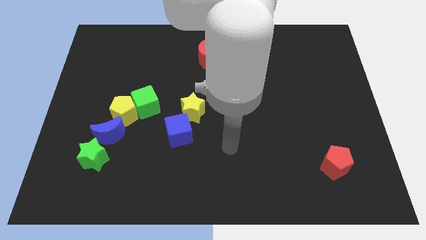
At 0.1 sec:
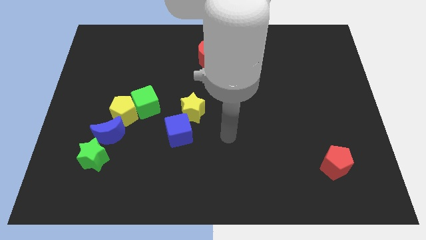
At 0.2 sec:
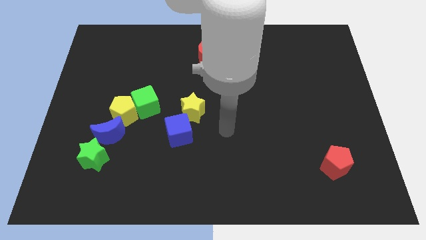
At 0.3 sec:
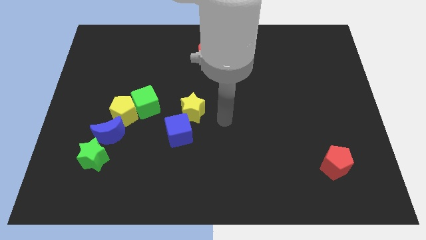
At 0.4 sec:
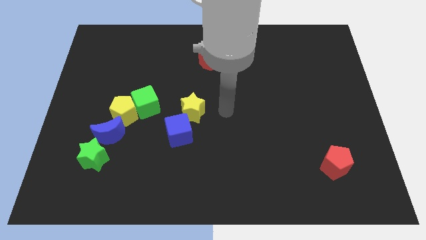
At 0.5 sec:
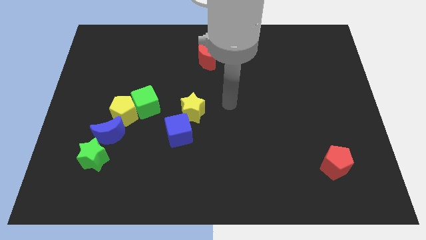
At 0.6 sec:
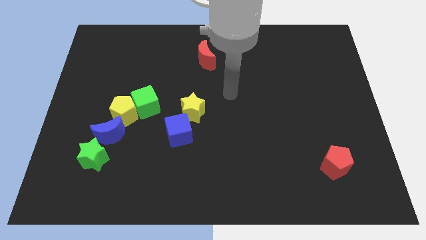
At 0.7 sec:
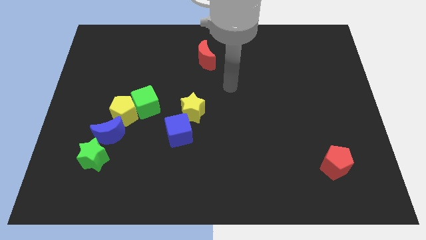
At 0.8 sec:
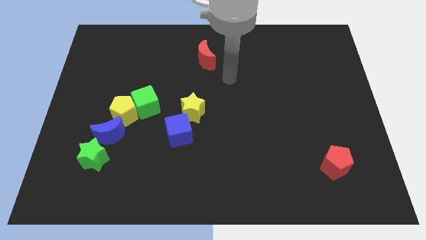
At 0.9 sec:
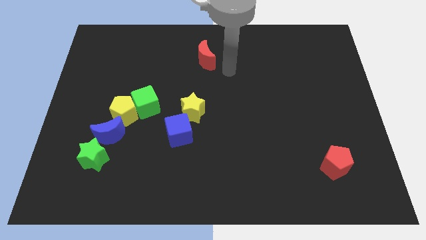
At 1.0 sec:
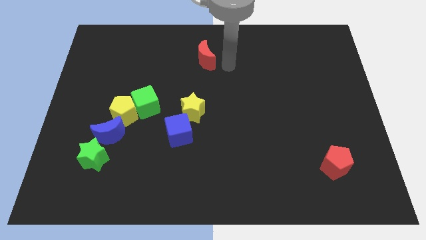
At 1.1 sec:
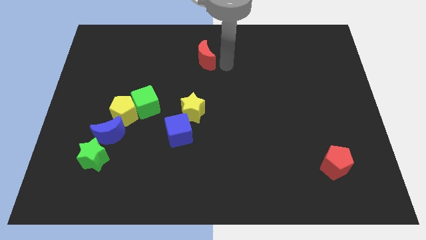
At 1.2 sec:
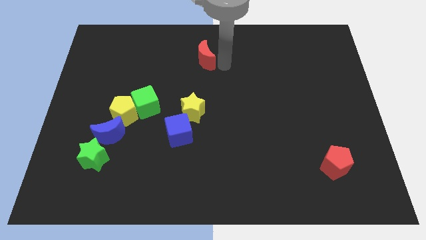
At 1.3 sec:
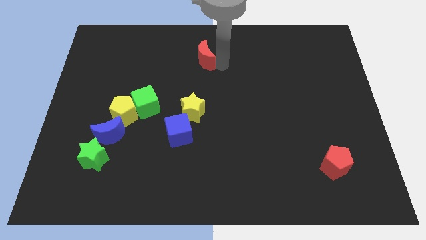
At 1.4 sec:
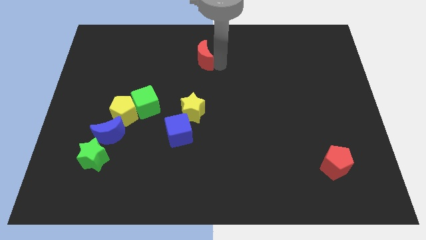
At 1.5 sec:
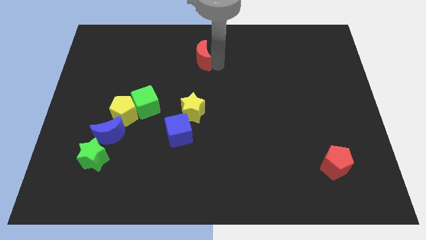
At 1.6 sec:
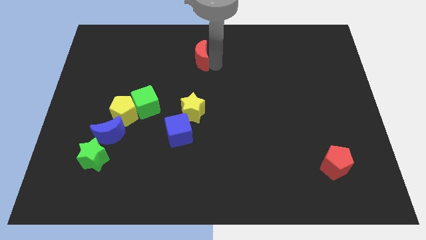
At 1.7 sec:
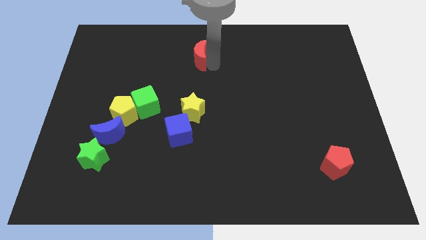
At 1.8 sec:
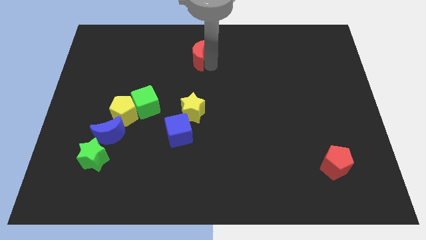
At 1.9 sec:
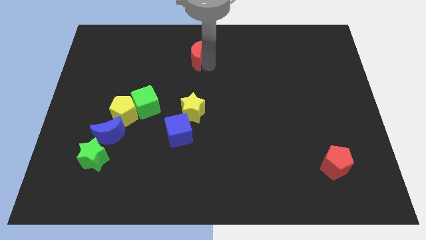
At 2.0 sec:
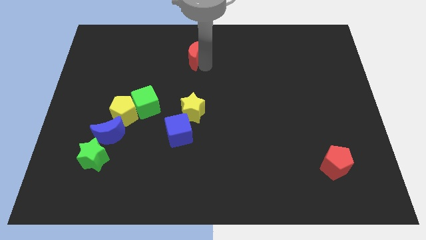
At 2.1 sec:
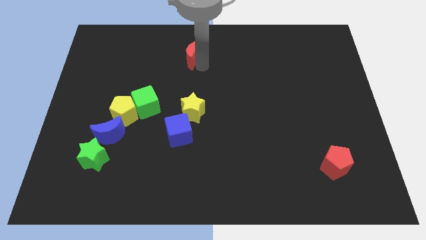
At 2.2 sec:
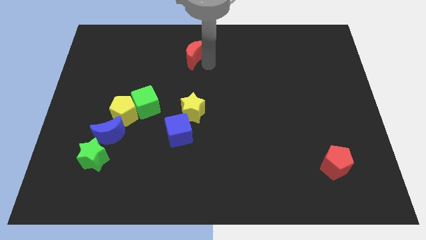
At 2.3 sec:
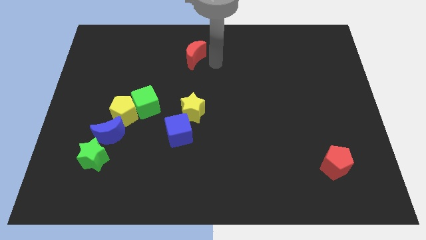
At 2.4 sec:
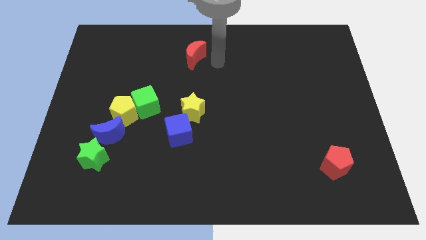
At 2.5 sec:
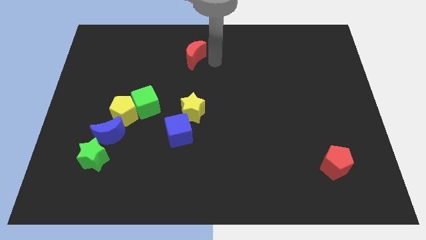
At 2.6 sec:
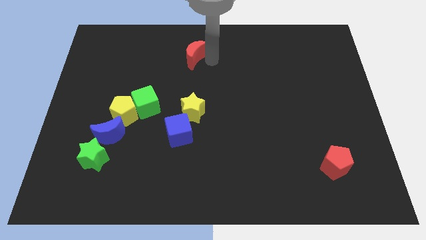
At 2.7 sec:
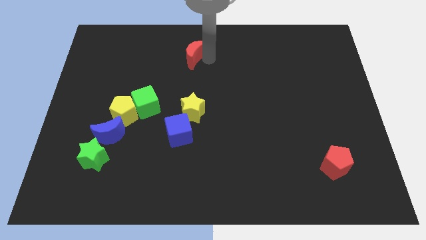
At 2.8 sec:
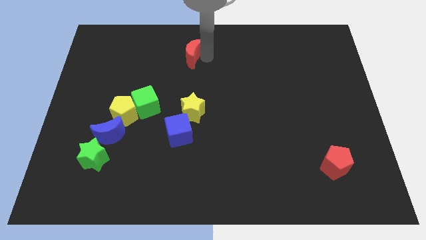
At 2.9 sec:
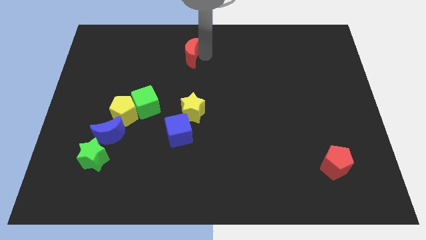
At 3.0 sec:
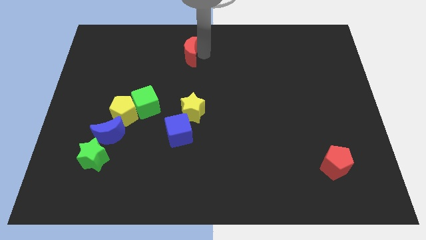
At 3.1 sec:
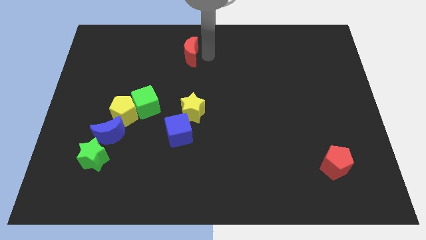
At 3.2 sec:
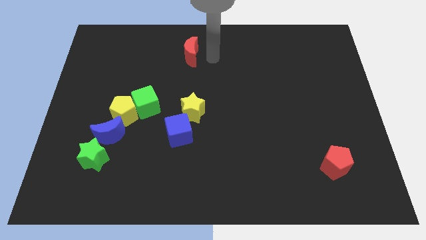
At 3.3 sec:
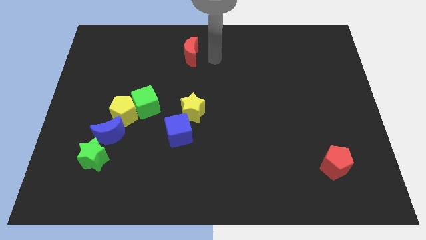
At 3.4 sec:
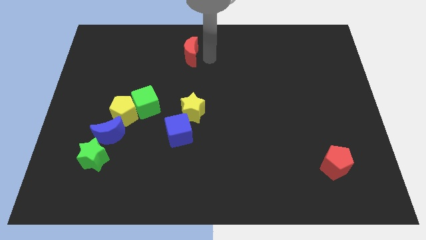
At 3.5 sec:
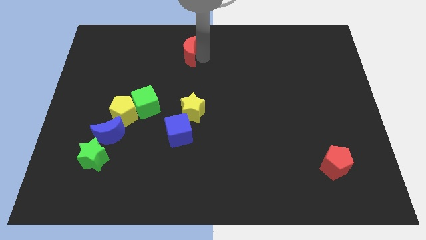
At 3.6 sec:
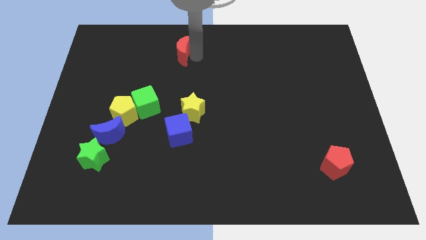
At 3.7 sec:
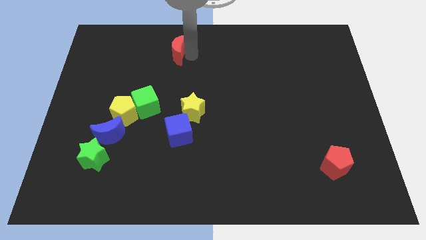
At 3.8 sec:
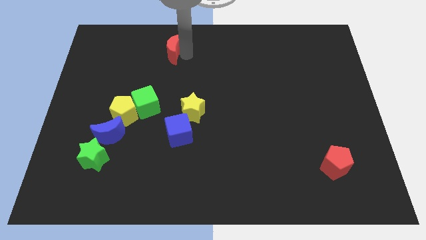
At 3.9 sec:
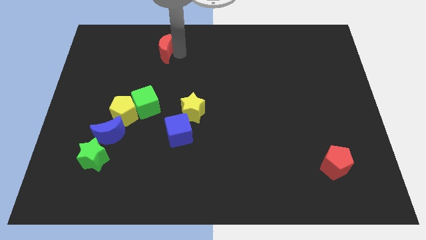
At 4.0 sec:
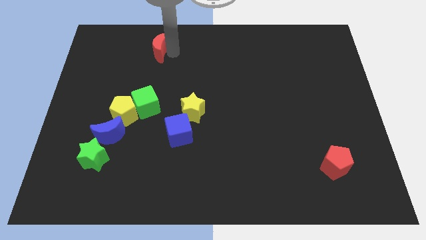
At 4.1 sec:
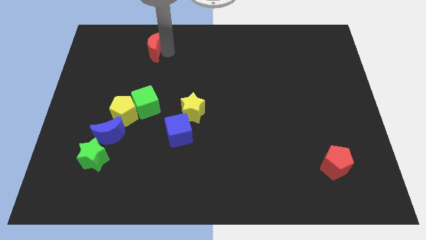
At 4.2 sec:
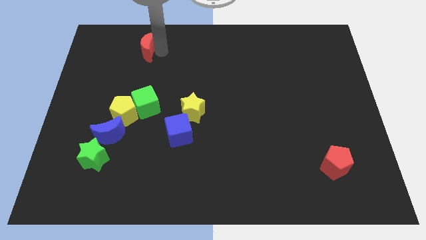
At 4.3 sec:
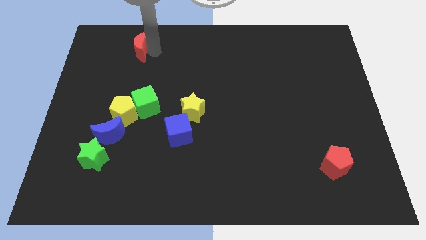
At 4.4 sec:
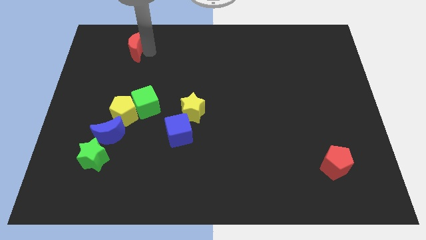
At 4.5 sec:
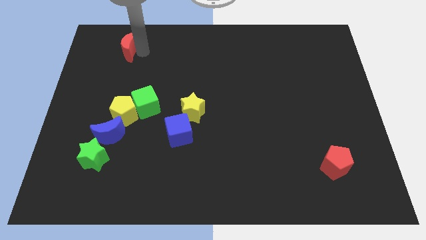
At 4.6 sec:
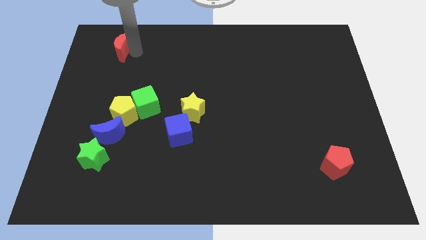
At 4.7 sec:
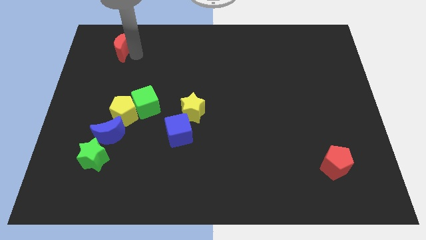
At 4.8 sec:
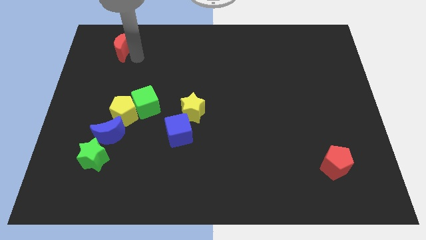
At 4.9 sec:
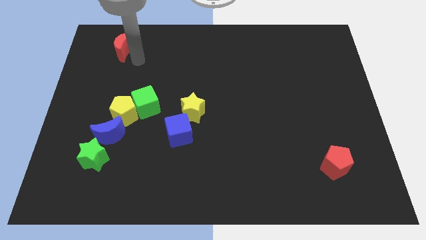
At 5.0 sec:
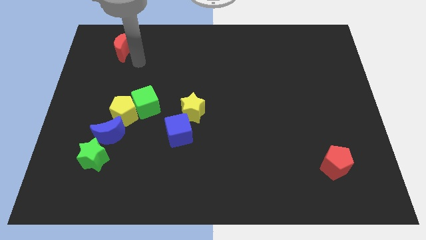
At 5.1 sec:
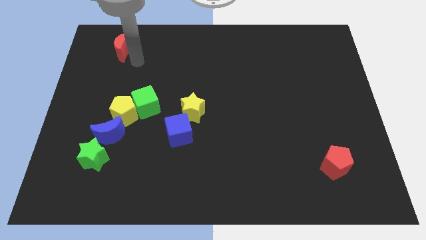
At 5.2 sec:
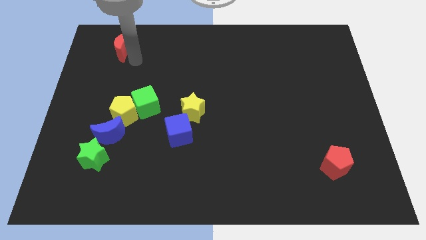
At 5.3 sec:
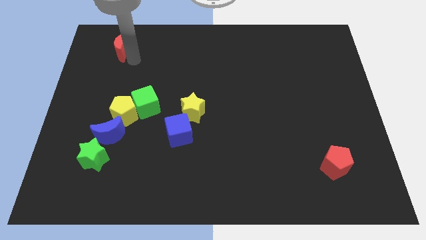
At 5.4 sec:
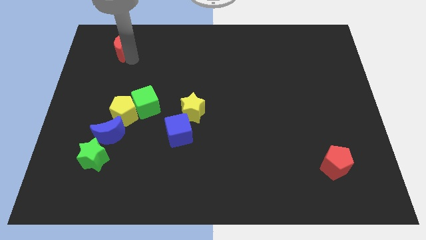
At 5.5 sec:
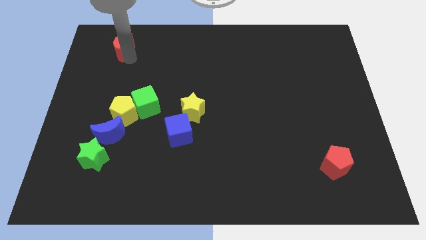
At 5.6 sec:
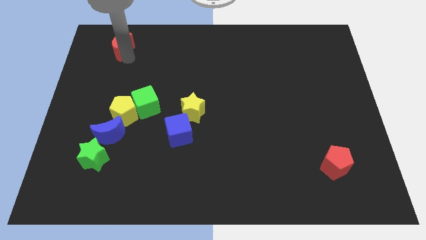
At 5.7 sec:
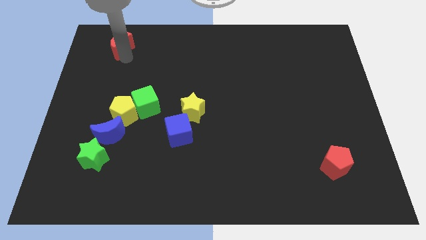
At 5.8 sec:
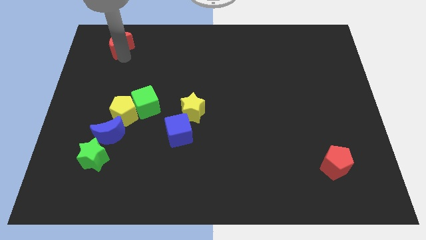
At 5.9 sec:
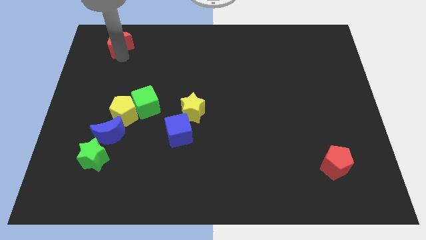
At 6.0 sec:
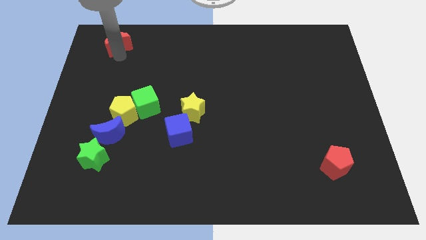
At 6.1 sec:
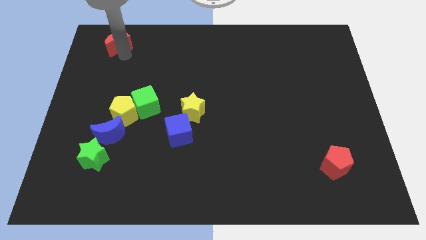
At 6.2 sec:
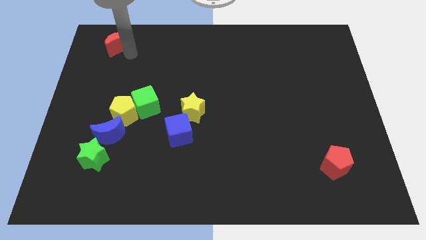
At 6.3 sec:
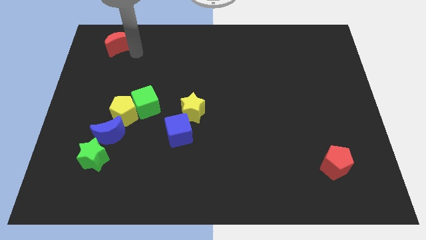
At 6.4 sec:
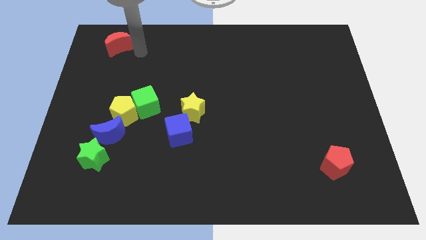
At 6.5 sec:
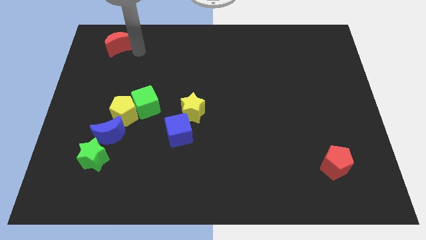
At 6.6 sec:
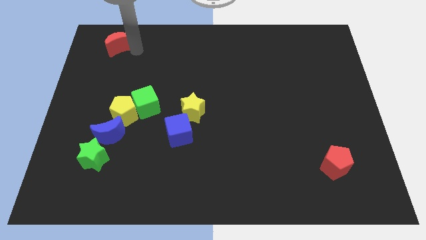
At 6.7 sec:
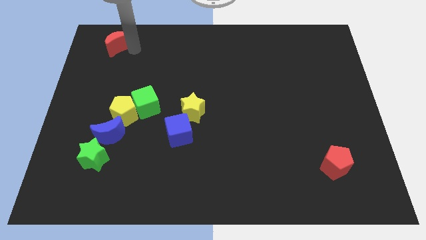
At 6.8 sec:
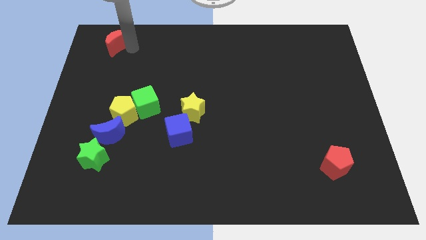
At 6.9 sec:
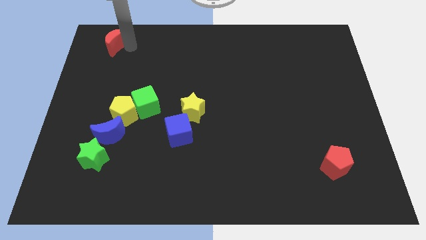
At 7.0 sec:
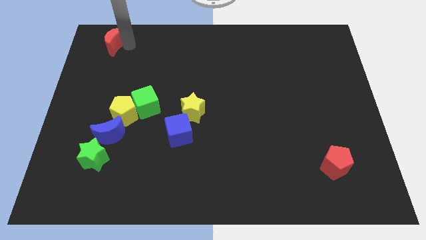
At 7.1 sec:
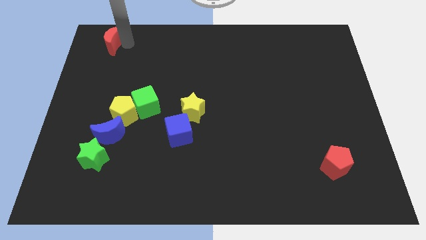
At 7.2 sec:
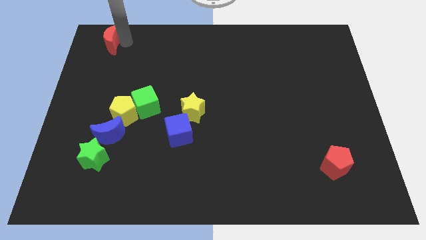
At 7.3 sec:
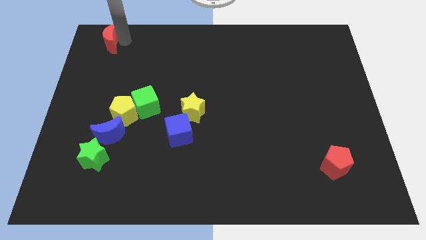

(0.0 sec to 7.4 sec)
move the red moon to the top left corner

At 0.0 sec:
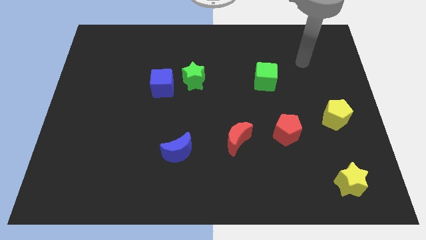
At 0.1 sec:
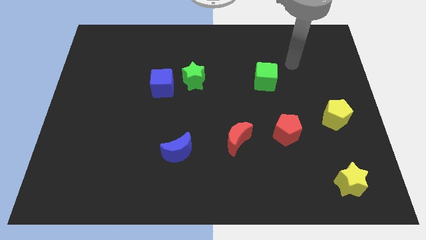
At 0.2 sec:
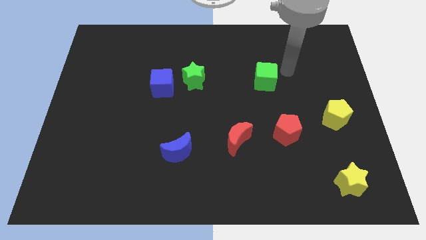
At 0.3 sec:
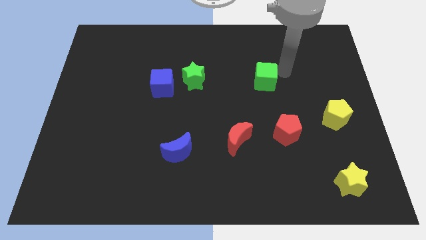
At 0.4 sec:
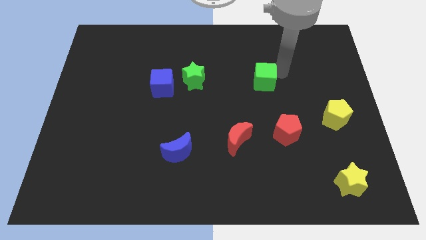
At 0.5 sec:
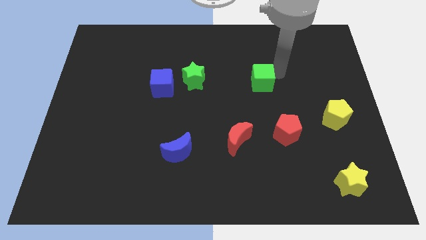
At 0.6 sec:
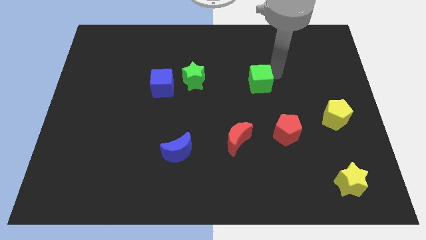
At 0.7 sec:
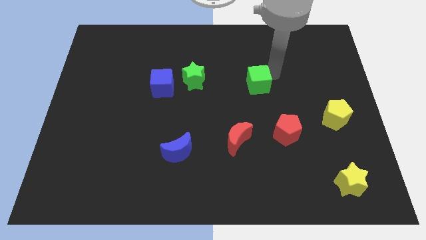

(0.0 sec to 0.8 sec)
put the green cube to the center
